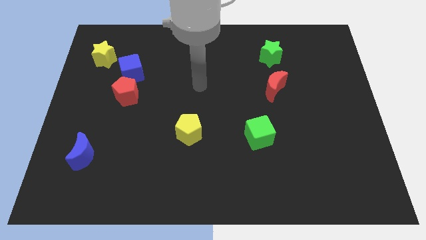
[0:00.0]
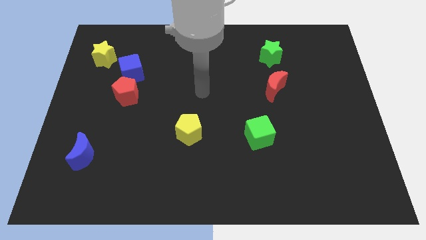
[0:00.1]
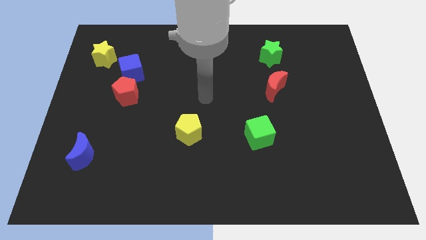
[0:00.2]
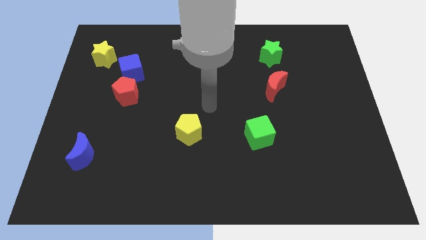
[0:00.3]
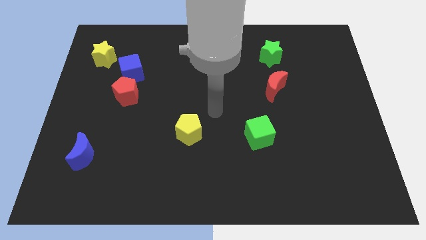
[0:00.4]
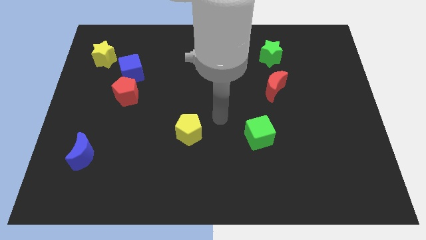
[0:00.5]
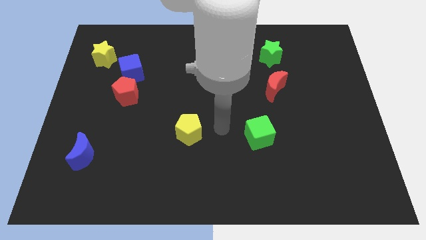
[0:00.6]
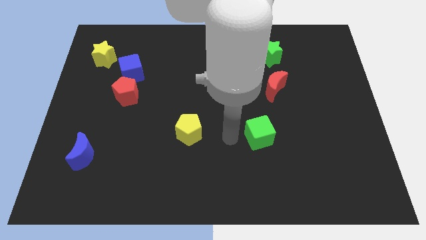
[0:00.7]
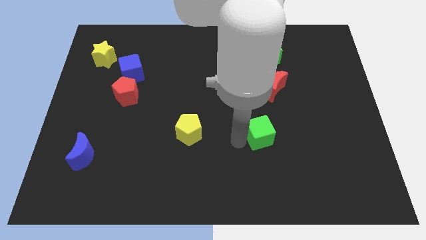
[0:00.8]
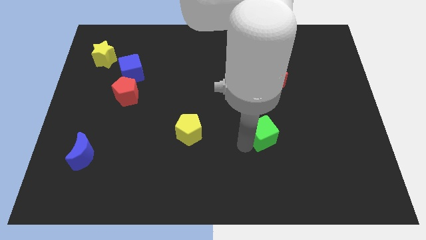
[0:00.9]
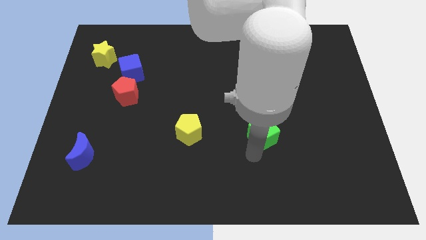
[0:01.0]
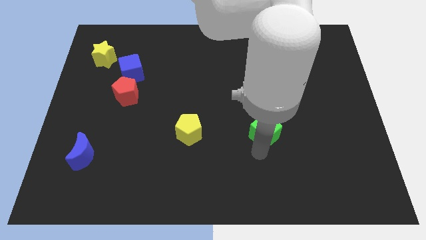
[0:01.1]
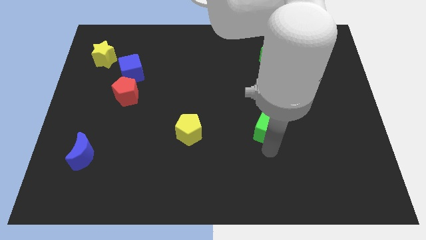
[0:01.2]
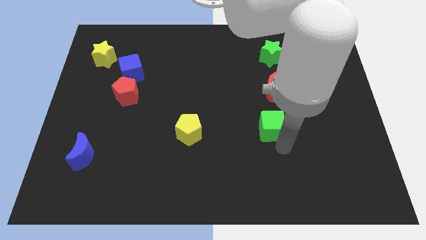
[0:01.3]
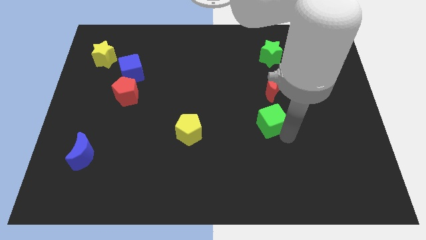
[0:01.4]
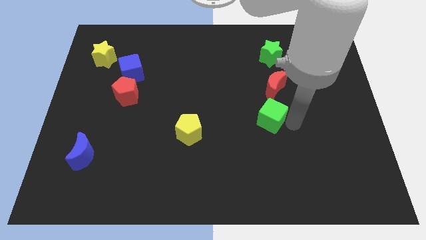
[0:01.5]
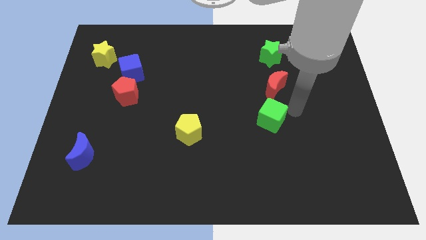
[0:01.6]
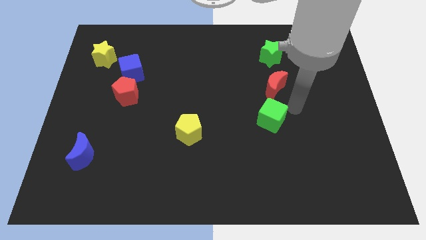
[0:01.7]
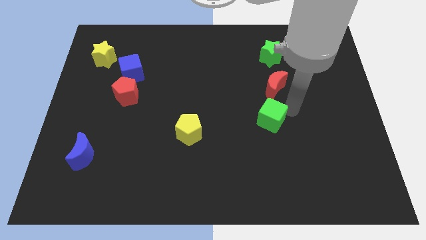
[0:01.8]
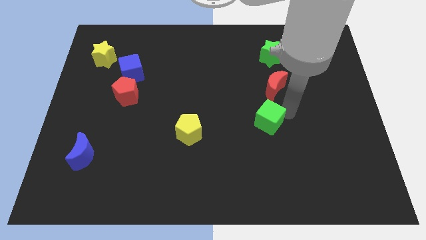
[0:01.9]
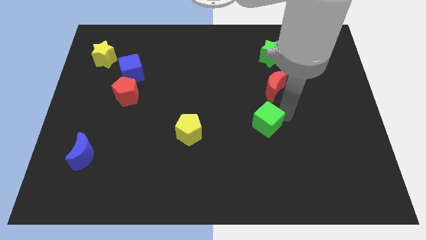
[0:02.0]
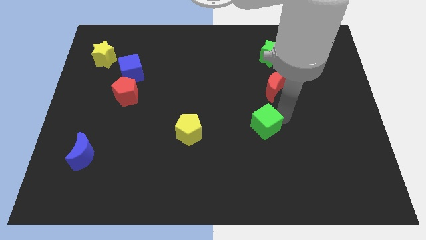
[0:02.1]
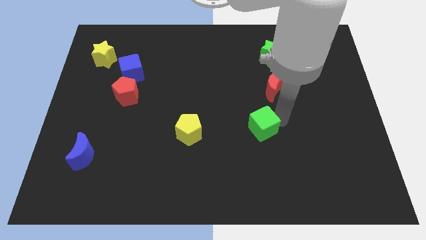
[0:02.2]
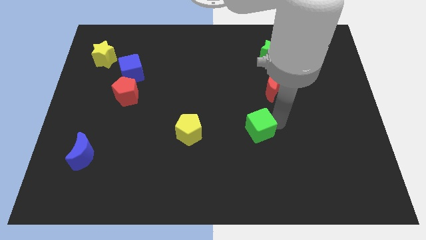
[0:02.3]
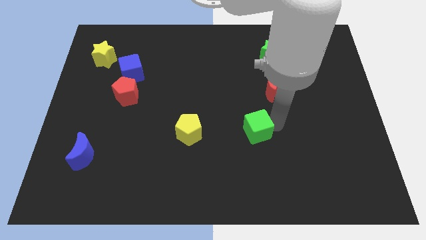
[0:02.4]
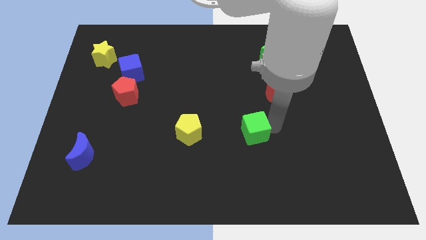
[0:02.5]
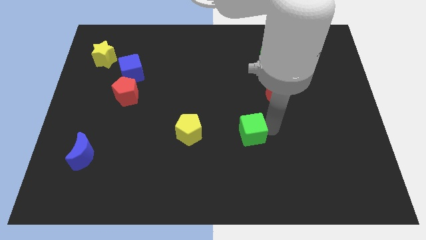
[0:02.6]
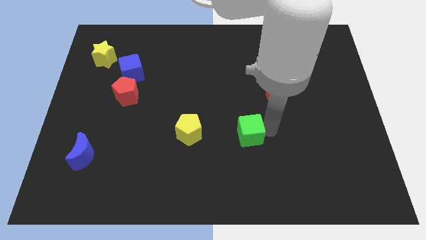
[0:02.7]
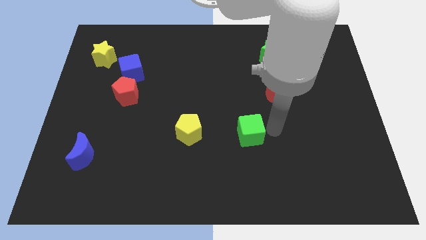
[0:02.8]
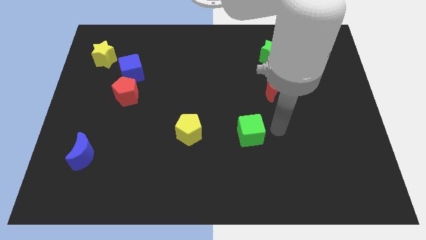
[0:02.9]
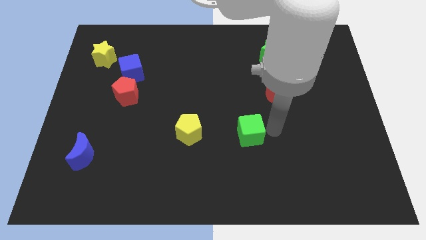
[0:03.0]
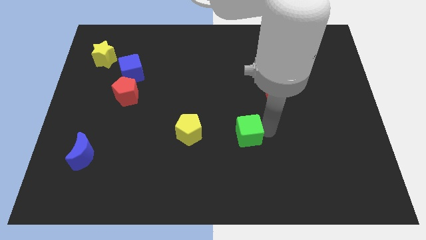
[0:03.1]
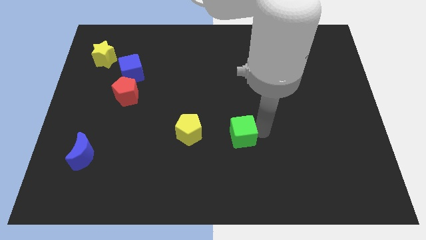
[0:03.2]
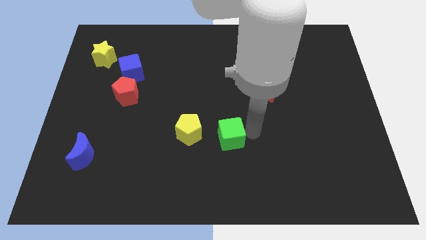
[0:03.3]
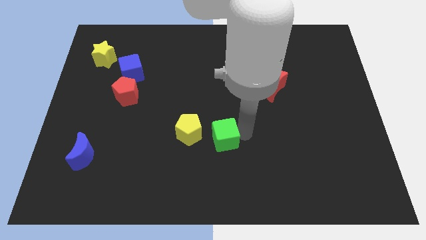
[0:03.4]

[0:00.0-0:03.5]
slightly push the green cube left

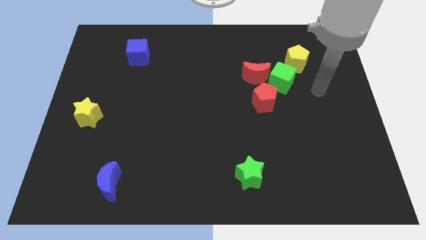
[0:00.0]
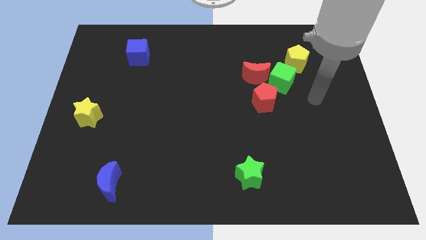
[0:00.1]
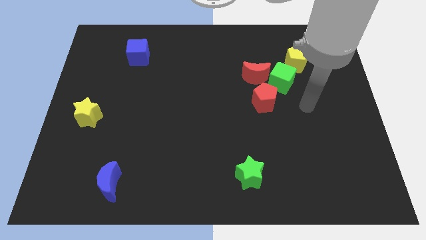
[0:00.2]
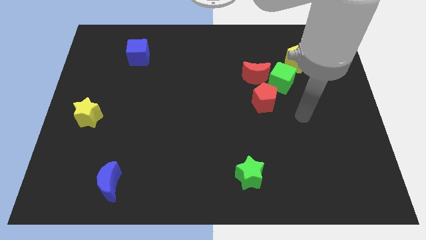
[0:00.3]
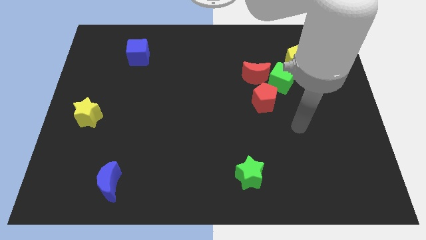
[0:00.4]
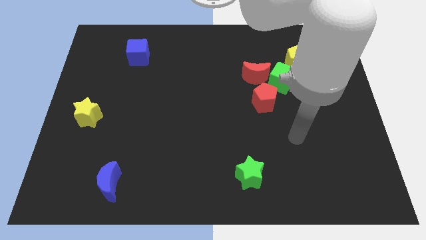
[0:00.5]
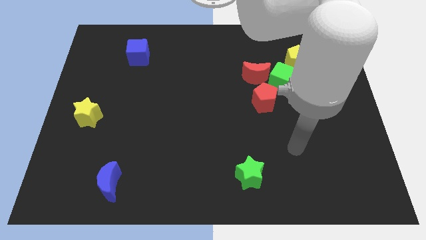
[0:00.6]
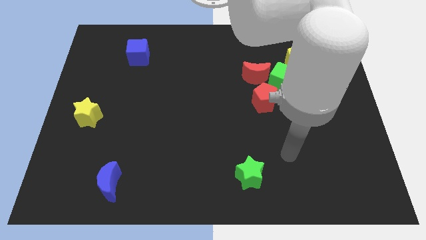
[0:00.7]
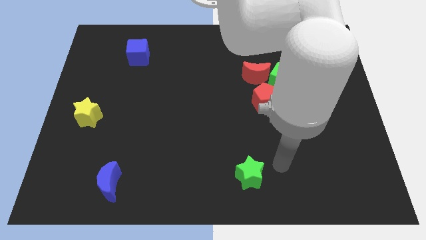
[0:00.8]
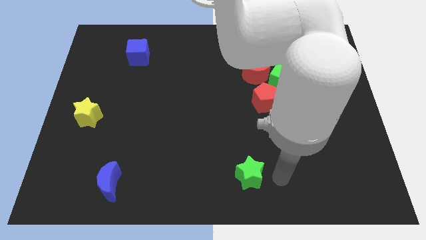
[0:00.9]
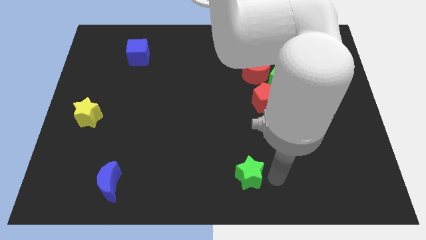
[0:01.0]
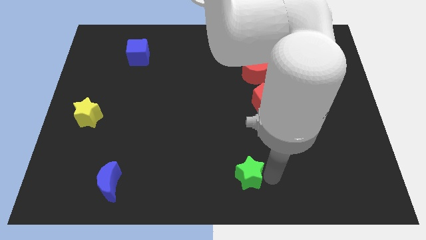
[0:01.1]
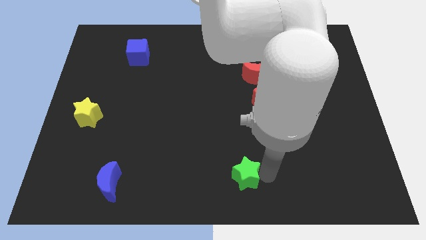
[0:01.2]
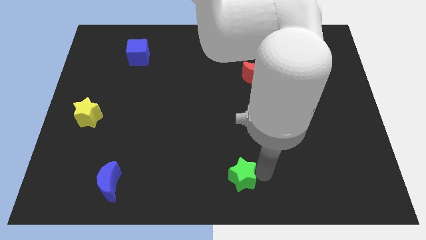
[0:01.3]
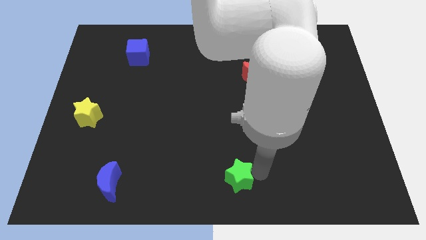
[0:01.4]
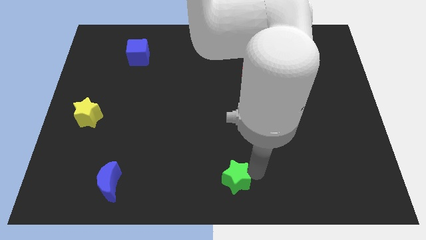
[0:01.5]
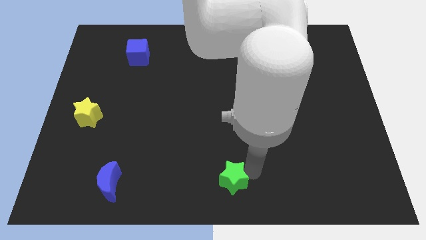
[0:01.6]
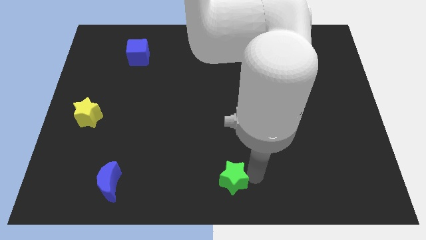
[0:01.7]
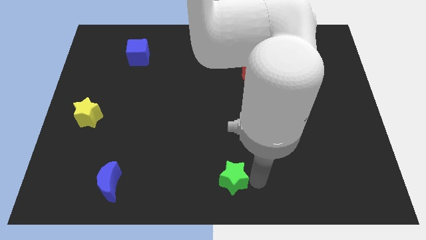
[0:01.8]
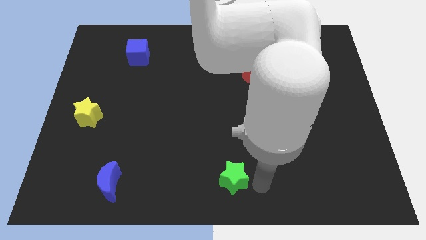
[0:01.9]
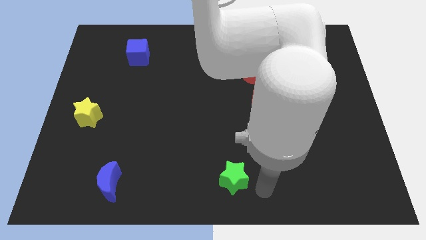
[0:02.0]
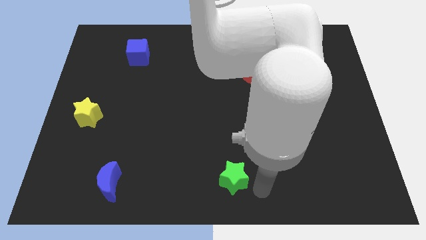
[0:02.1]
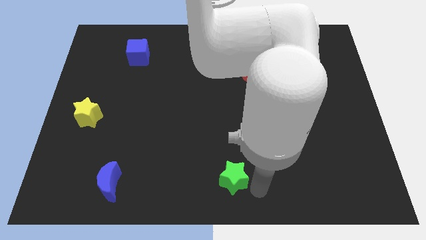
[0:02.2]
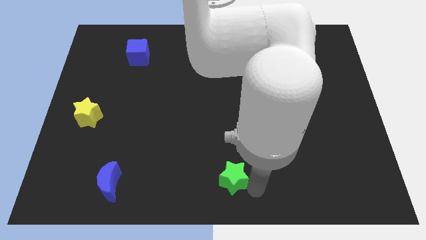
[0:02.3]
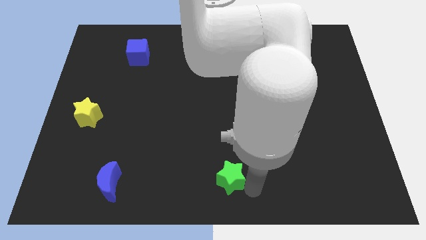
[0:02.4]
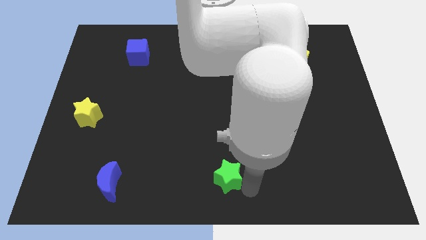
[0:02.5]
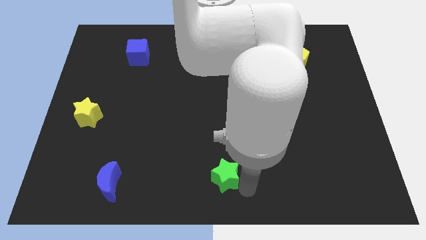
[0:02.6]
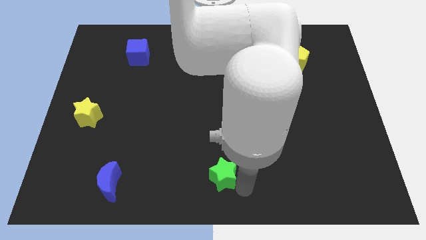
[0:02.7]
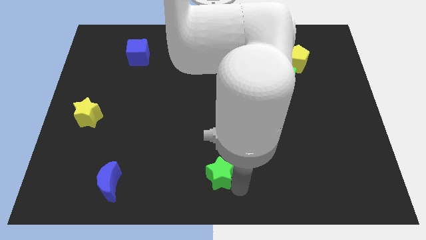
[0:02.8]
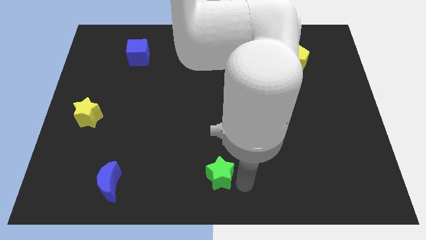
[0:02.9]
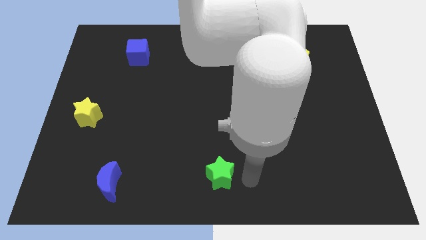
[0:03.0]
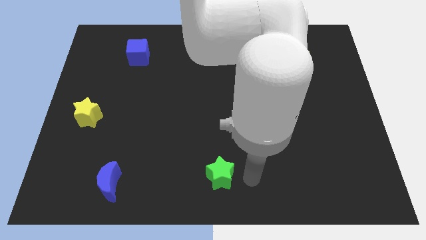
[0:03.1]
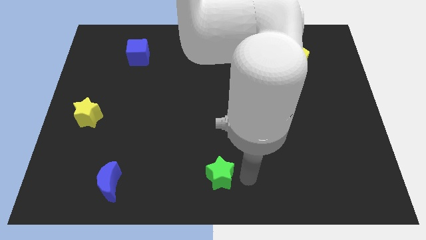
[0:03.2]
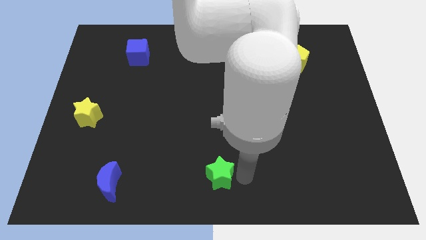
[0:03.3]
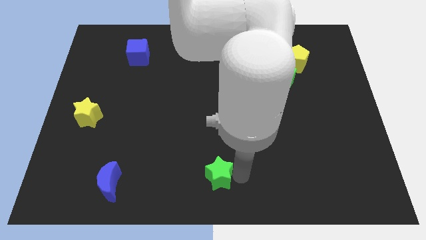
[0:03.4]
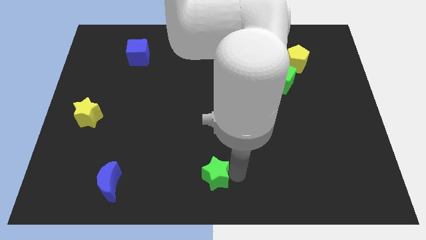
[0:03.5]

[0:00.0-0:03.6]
slightly push the green star to the left

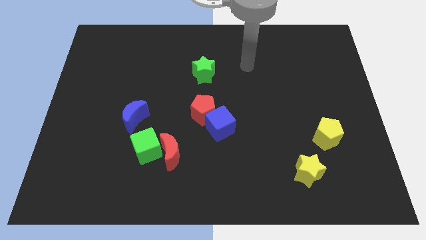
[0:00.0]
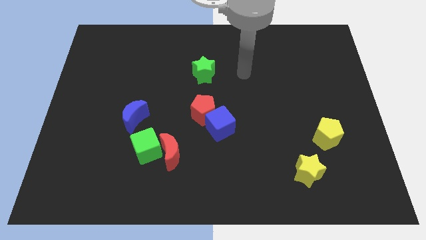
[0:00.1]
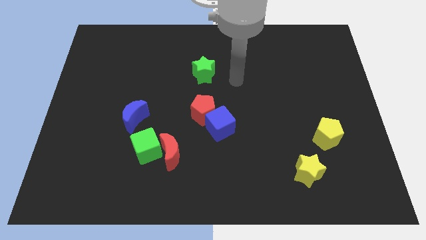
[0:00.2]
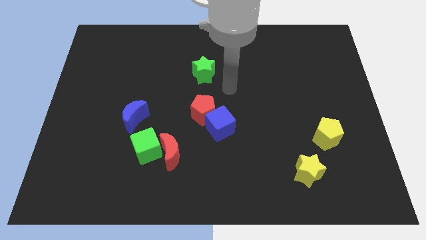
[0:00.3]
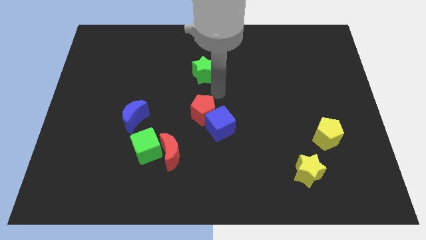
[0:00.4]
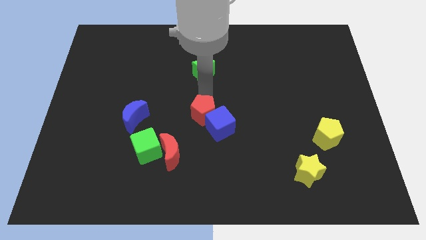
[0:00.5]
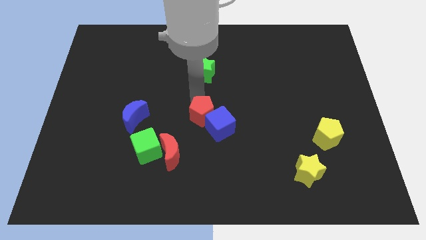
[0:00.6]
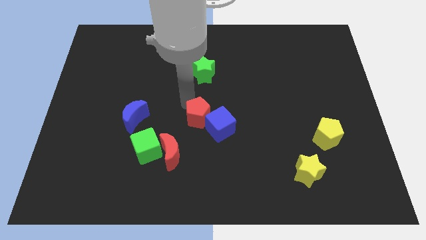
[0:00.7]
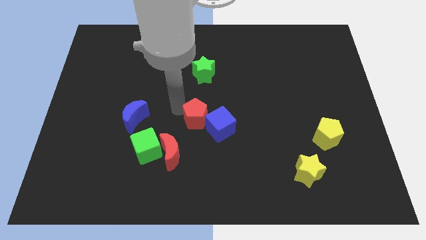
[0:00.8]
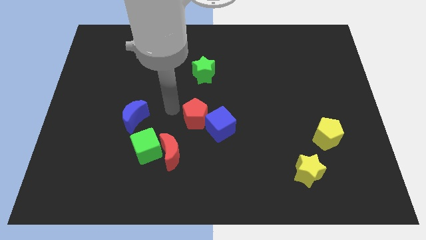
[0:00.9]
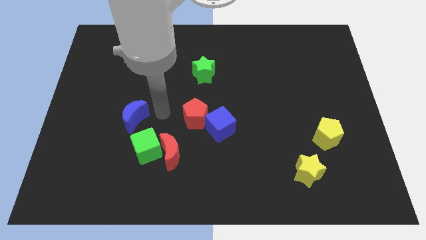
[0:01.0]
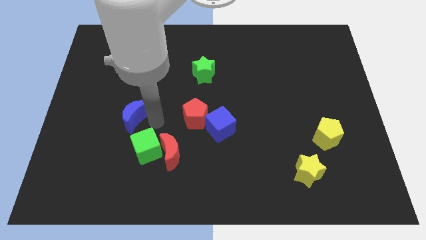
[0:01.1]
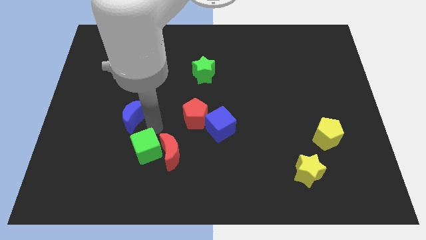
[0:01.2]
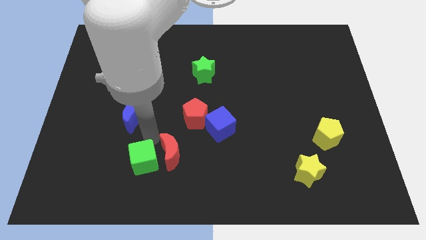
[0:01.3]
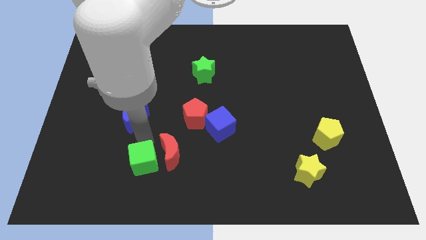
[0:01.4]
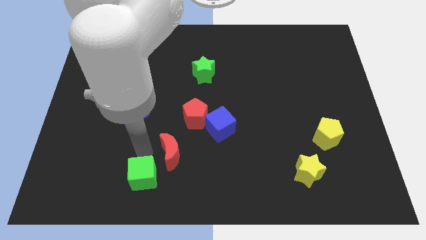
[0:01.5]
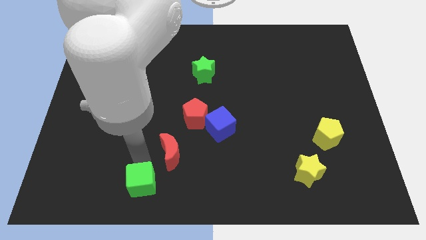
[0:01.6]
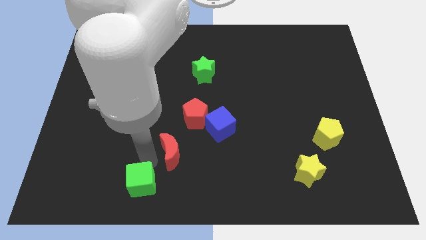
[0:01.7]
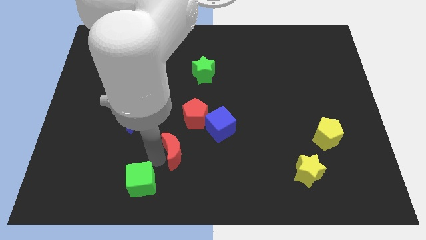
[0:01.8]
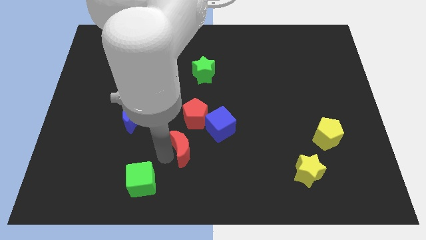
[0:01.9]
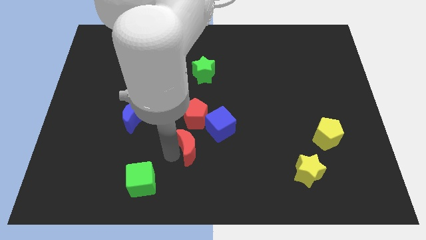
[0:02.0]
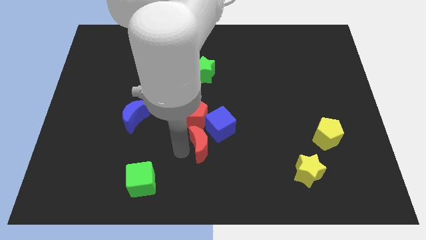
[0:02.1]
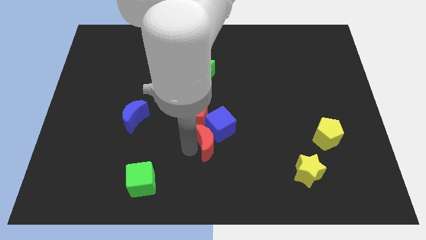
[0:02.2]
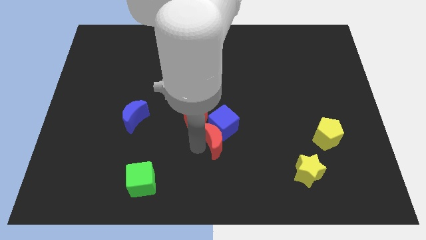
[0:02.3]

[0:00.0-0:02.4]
slide the red moon a little upwards and then to the right
